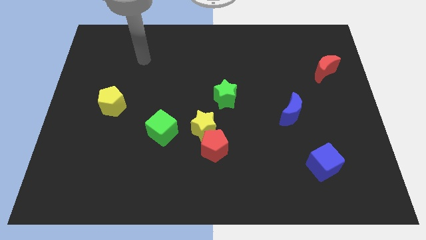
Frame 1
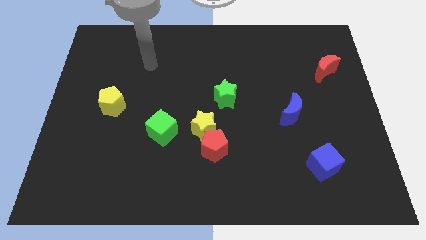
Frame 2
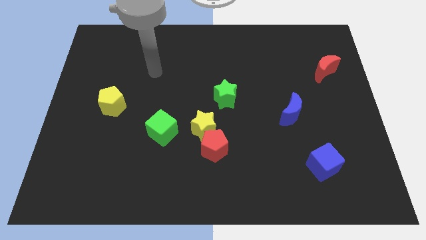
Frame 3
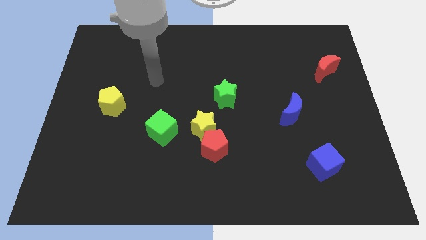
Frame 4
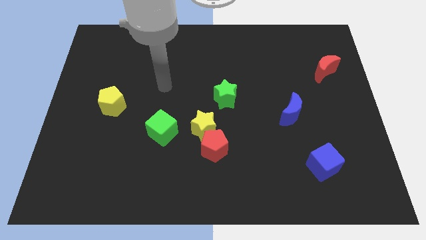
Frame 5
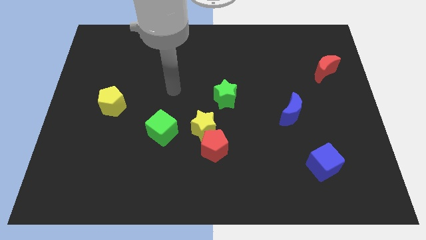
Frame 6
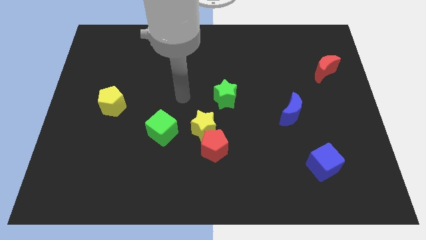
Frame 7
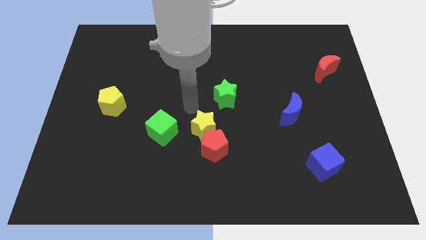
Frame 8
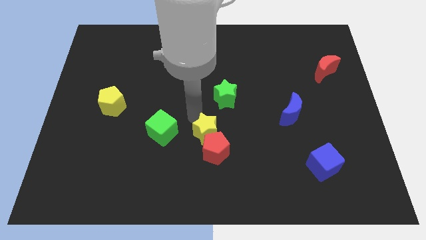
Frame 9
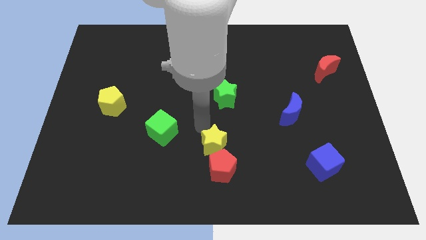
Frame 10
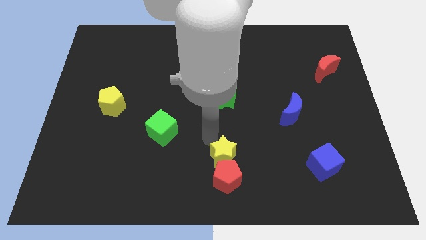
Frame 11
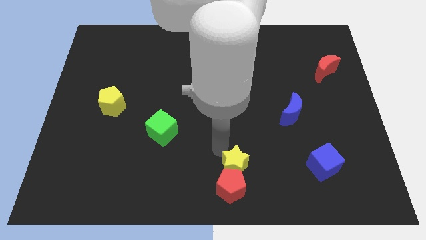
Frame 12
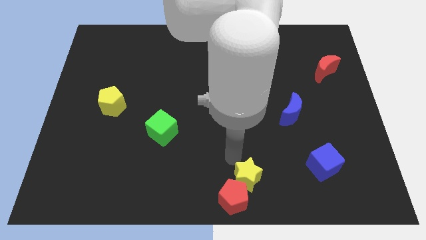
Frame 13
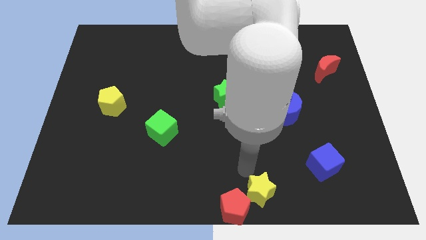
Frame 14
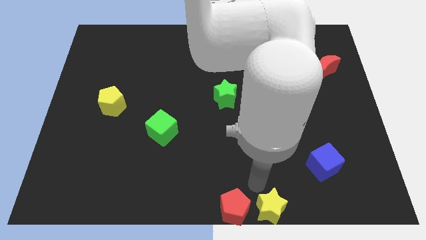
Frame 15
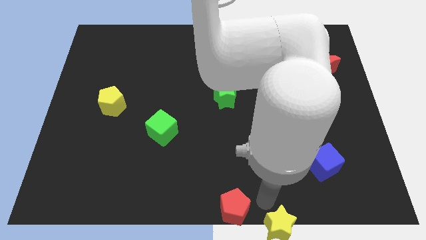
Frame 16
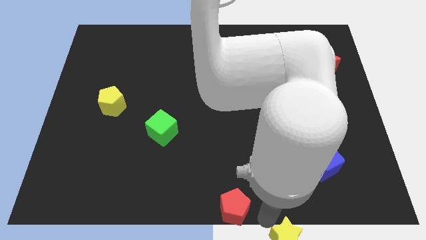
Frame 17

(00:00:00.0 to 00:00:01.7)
separate the red pentagon from the yellow star

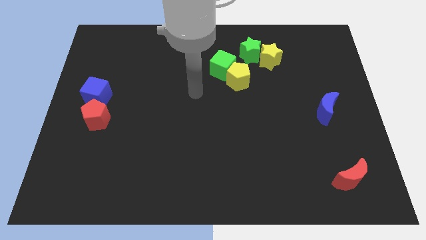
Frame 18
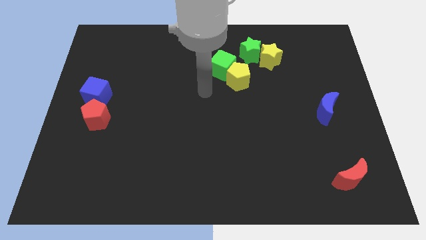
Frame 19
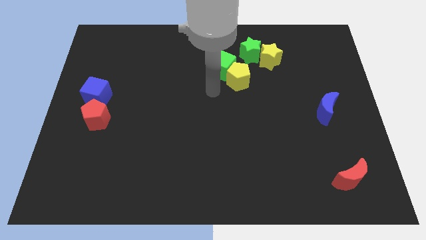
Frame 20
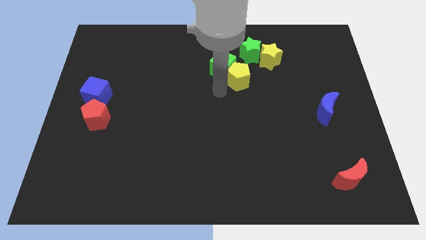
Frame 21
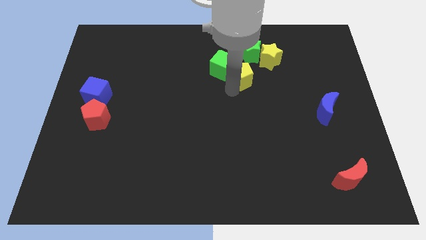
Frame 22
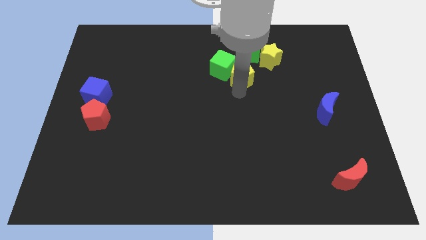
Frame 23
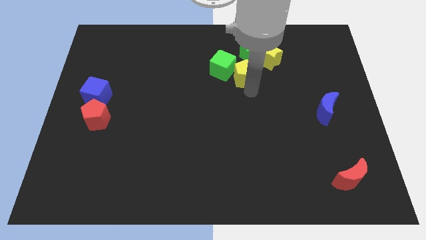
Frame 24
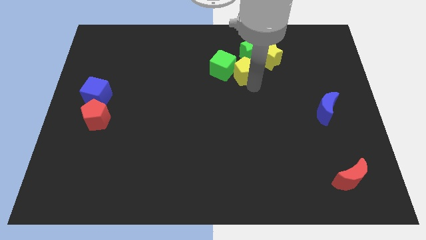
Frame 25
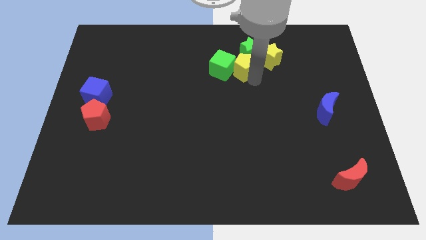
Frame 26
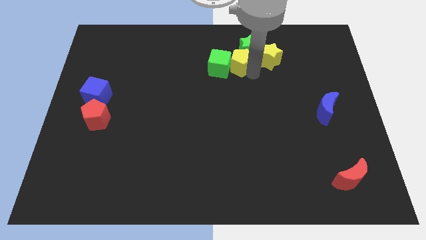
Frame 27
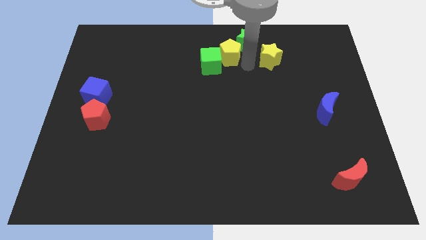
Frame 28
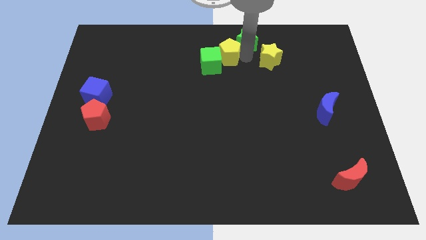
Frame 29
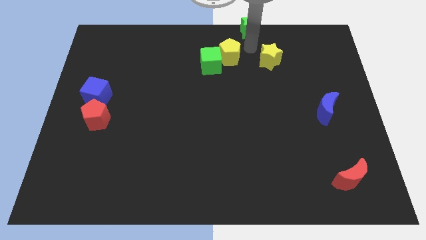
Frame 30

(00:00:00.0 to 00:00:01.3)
move the yellow star away from the green star

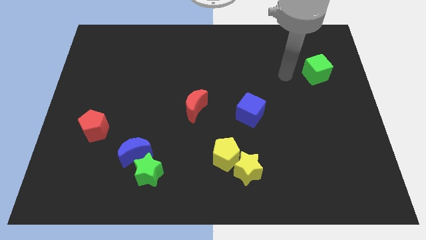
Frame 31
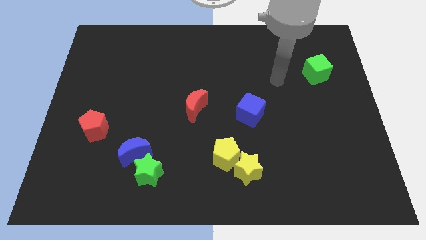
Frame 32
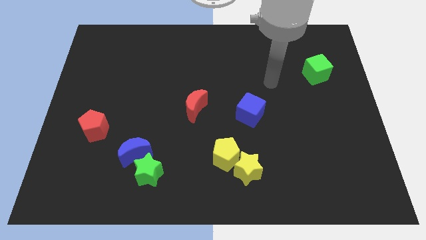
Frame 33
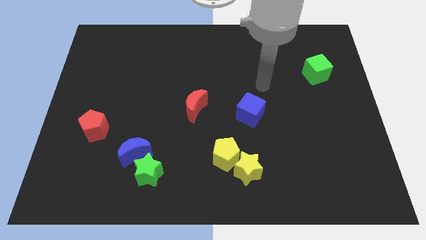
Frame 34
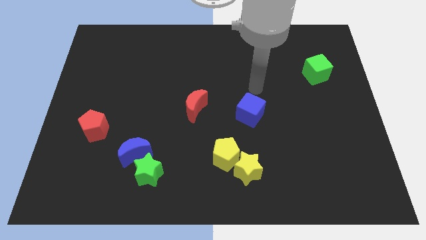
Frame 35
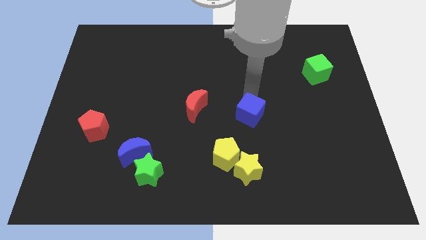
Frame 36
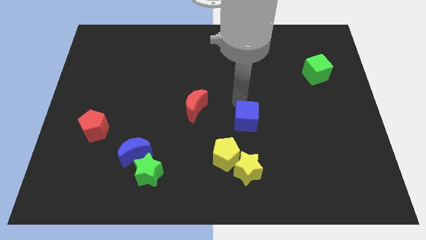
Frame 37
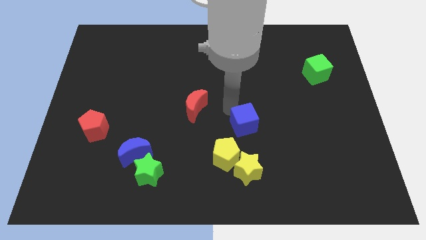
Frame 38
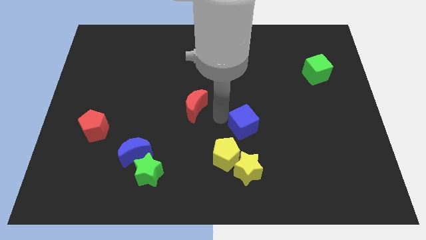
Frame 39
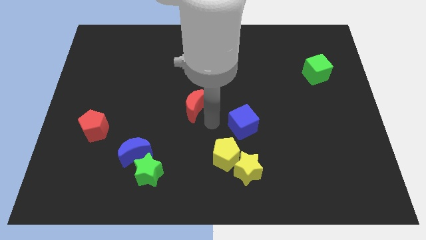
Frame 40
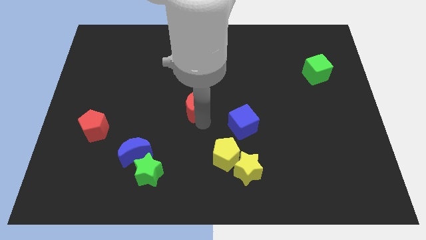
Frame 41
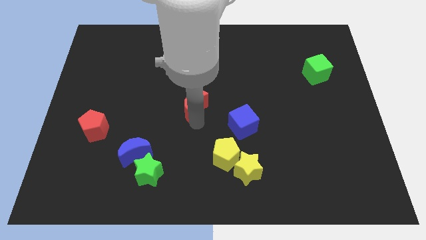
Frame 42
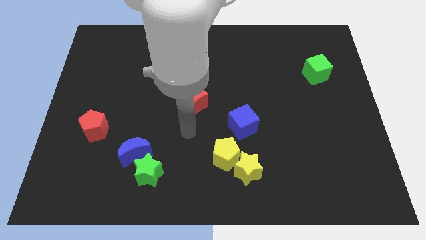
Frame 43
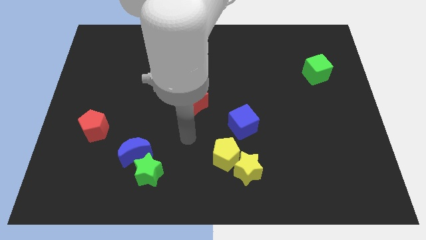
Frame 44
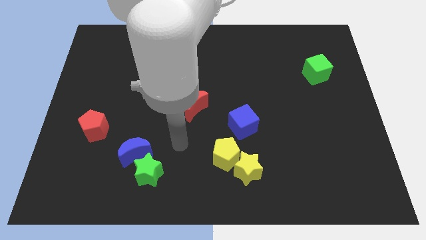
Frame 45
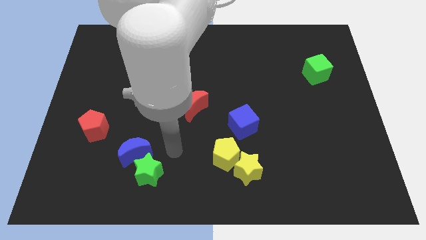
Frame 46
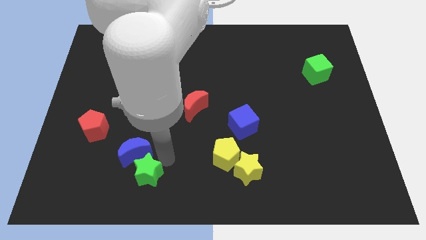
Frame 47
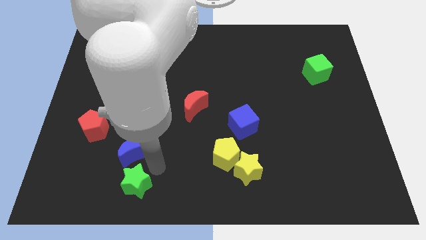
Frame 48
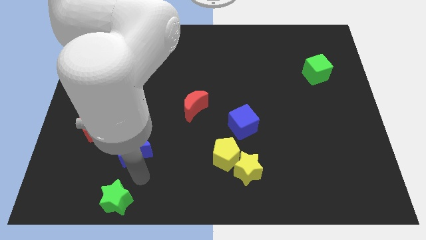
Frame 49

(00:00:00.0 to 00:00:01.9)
pull the blue moon apart from the green star

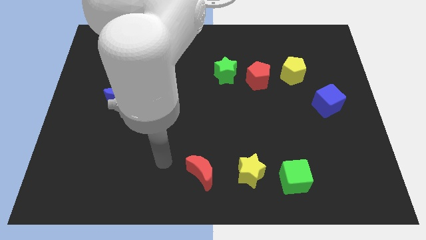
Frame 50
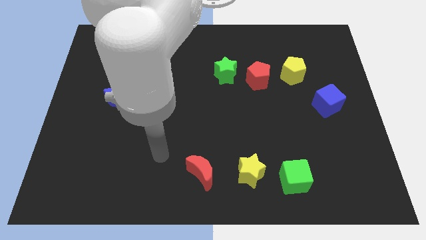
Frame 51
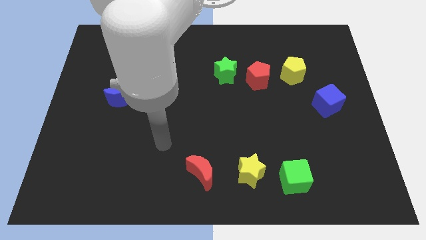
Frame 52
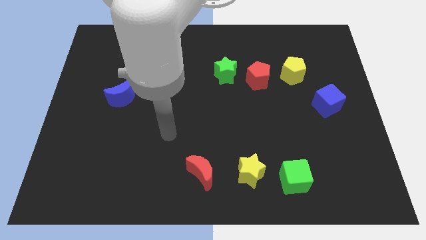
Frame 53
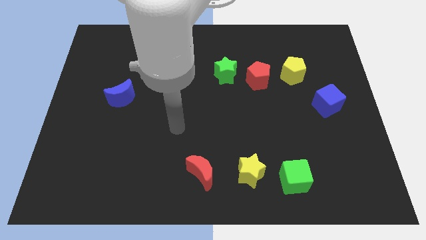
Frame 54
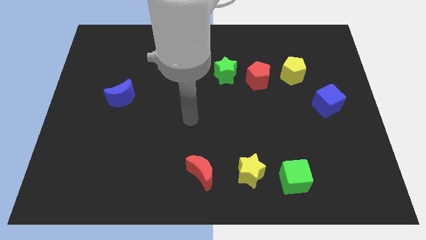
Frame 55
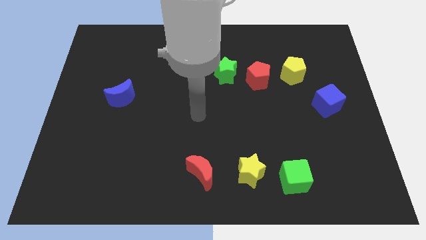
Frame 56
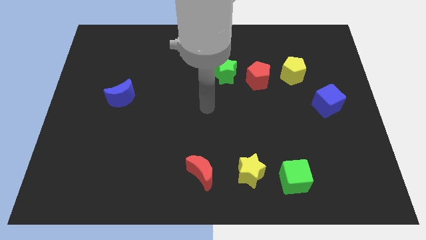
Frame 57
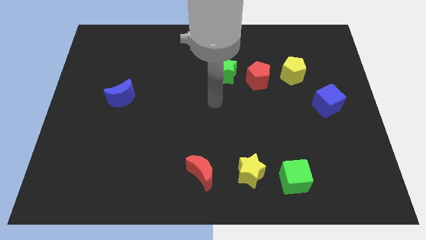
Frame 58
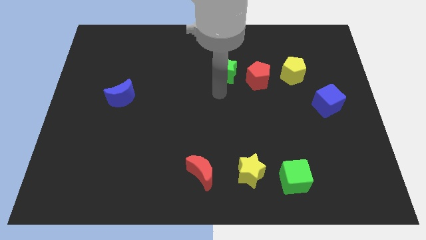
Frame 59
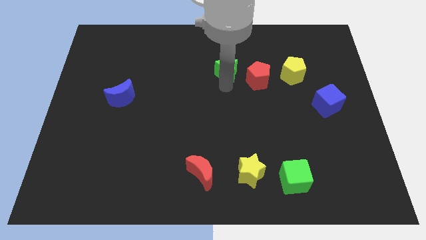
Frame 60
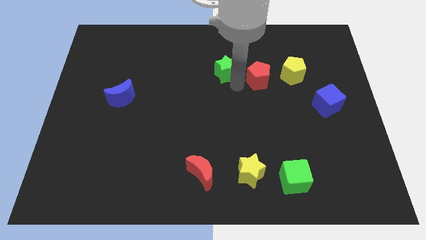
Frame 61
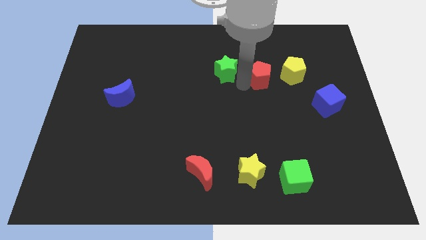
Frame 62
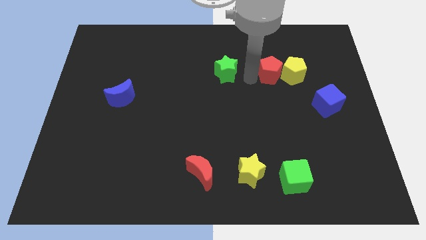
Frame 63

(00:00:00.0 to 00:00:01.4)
separate the green star from the red pentagon

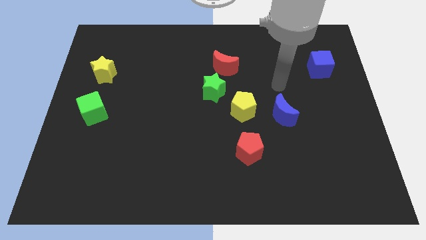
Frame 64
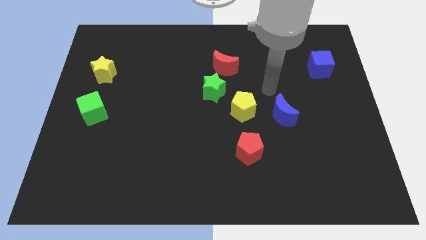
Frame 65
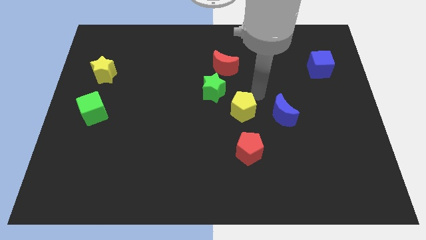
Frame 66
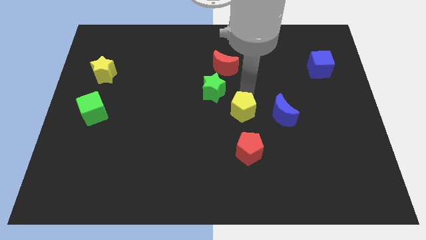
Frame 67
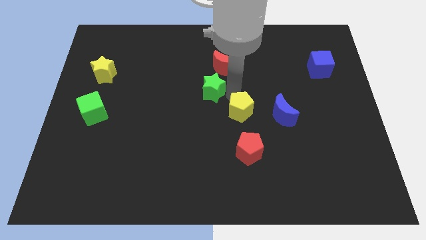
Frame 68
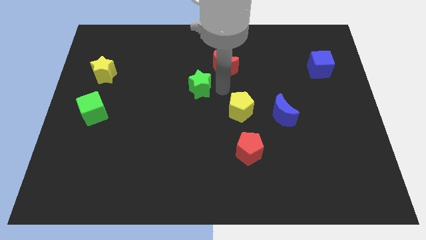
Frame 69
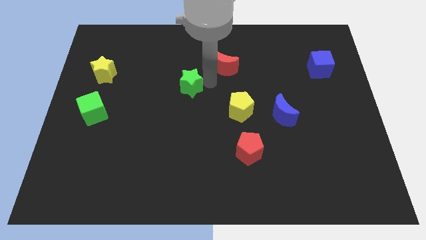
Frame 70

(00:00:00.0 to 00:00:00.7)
pull the red moon apart from the green star

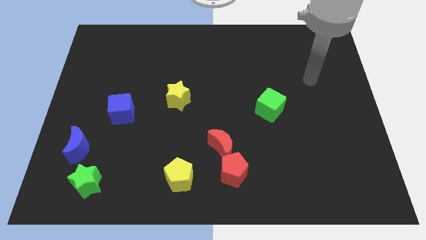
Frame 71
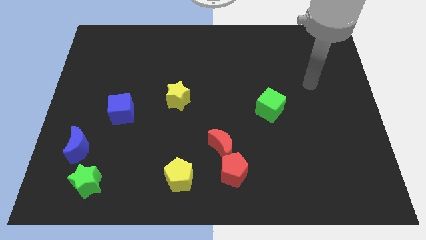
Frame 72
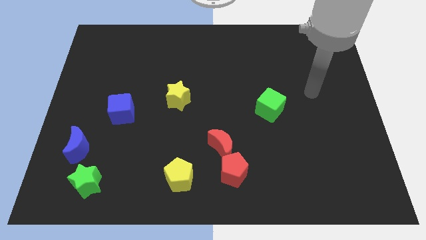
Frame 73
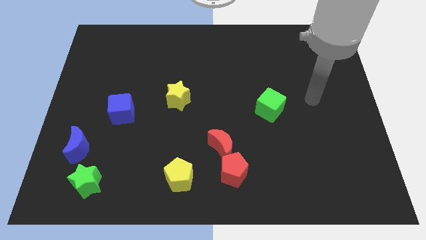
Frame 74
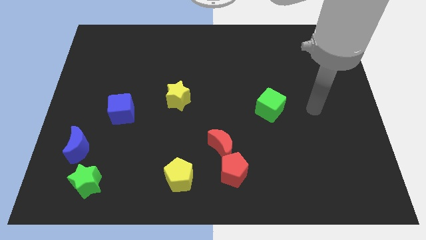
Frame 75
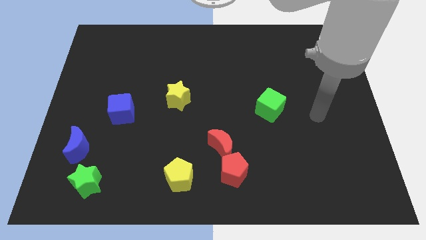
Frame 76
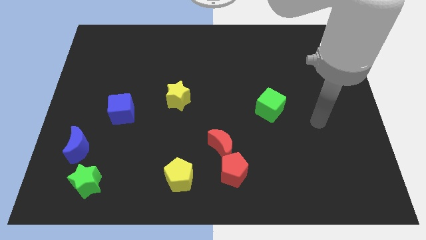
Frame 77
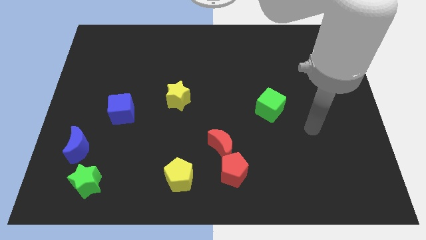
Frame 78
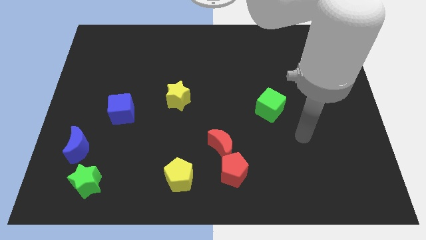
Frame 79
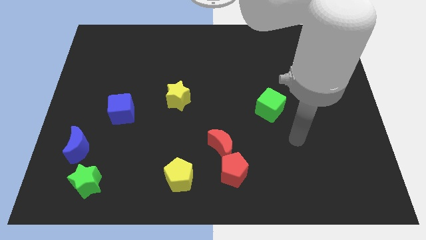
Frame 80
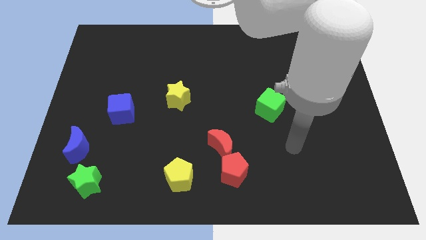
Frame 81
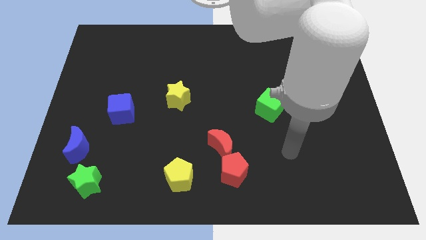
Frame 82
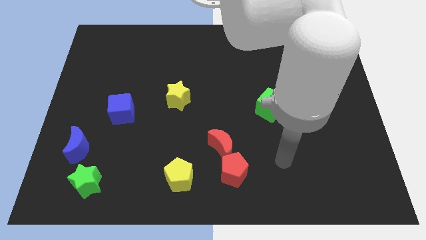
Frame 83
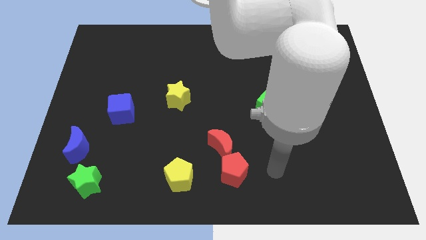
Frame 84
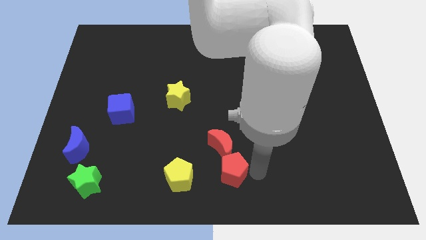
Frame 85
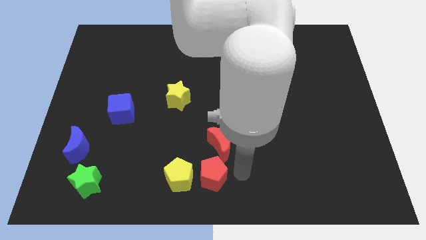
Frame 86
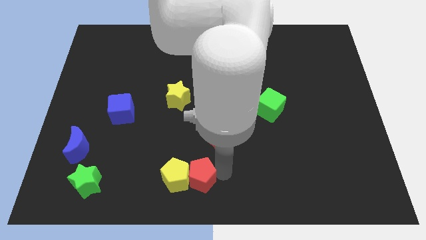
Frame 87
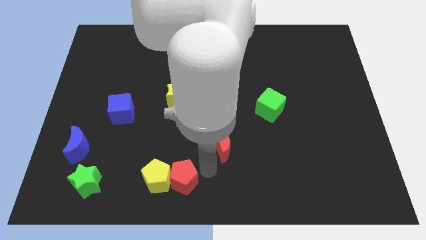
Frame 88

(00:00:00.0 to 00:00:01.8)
move the red moon away from the red pentagon

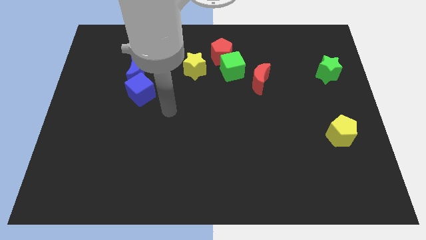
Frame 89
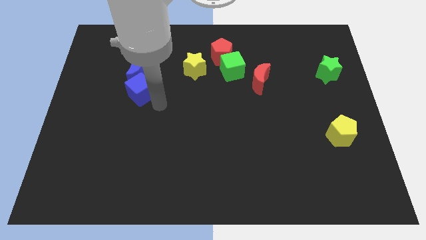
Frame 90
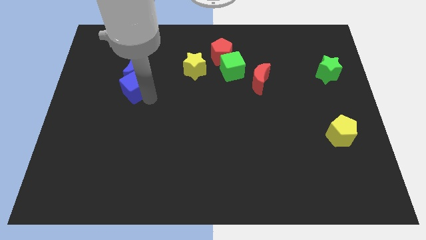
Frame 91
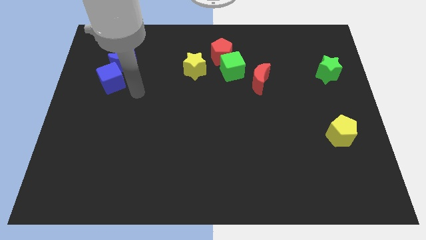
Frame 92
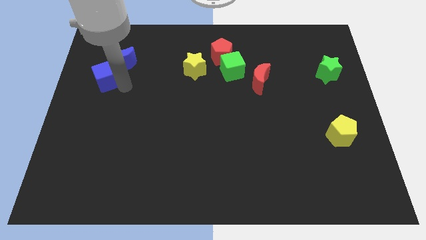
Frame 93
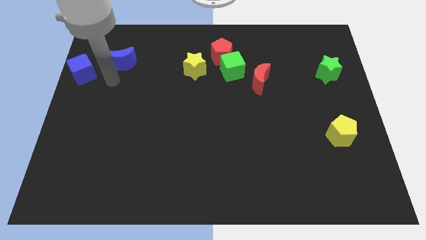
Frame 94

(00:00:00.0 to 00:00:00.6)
pull the blue moon apart from the blue cube
